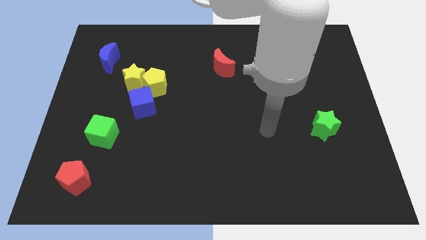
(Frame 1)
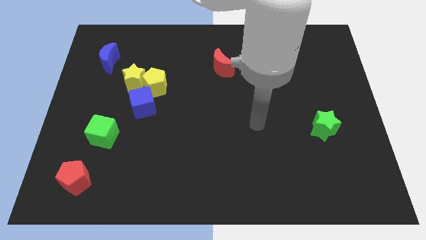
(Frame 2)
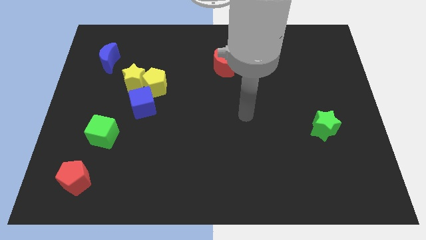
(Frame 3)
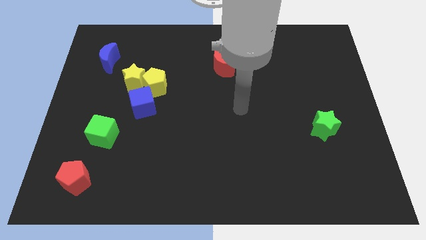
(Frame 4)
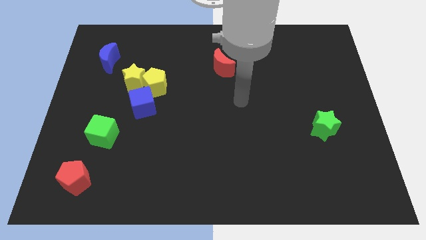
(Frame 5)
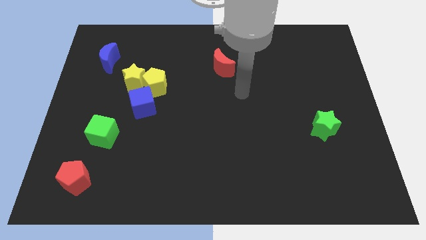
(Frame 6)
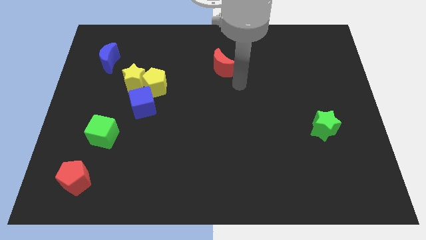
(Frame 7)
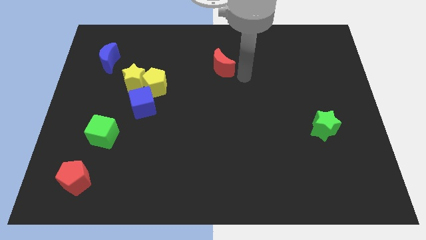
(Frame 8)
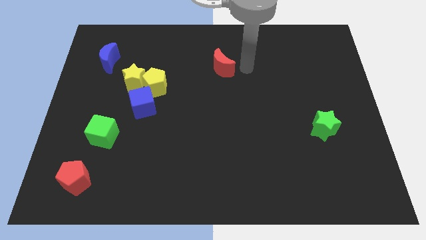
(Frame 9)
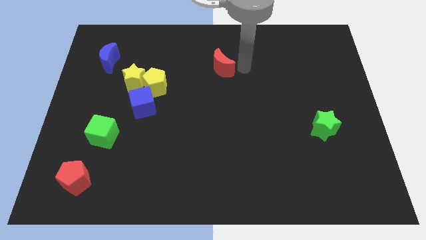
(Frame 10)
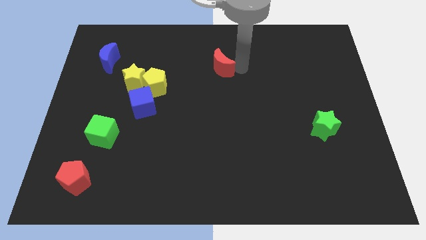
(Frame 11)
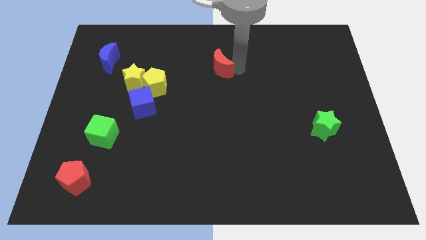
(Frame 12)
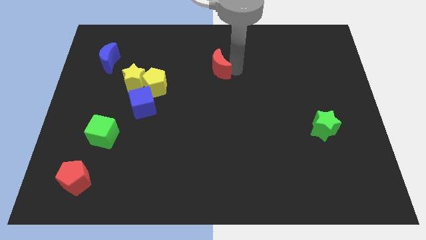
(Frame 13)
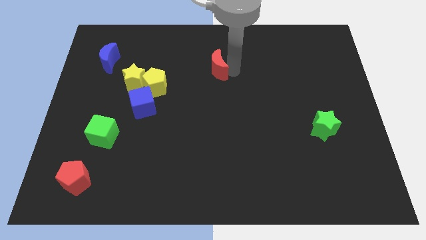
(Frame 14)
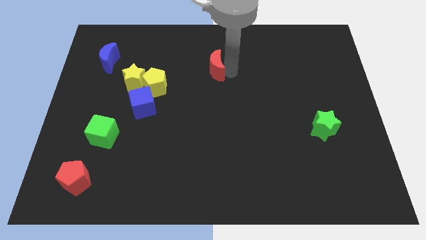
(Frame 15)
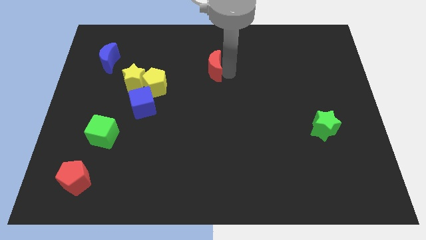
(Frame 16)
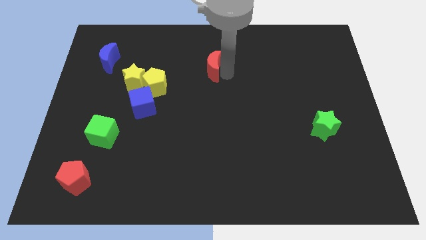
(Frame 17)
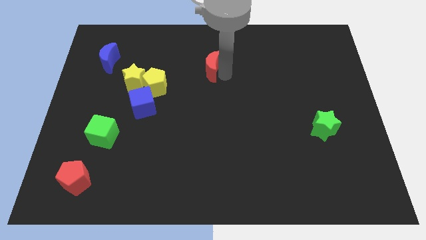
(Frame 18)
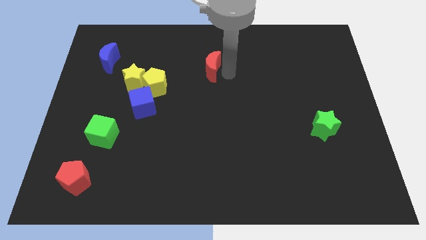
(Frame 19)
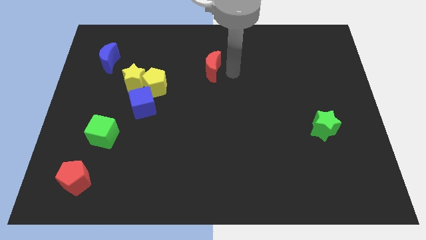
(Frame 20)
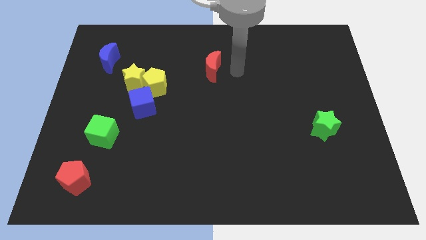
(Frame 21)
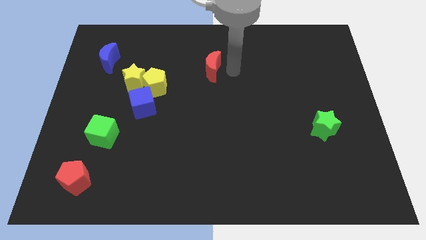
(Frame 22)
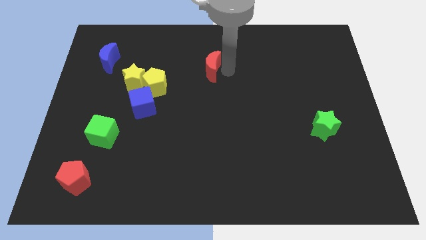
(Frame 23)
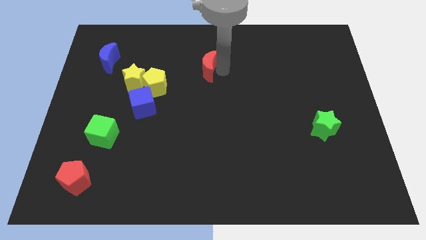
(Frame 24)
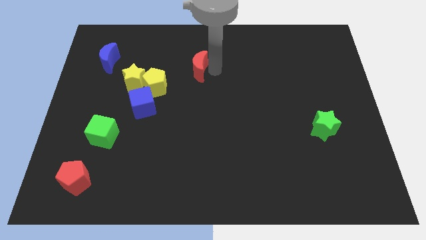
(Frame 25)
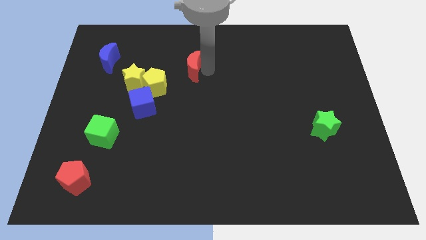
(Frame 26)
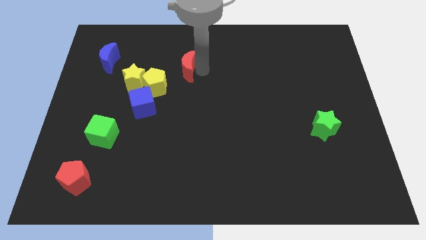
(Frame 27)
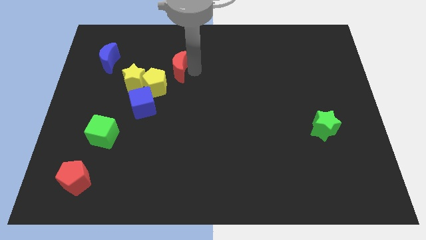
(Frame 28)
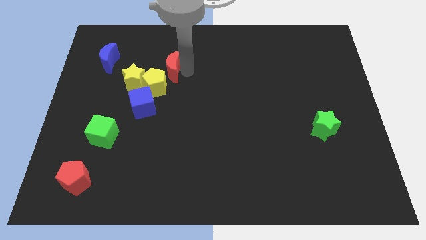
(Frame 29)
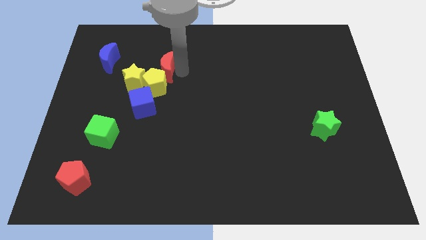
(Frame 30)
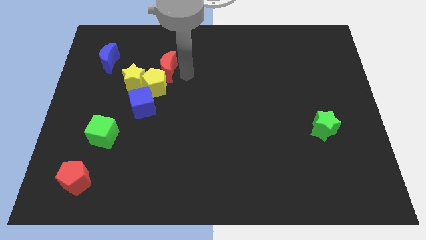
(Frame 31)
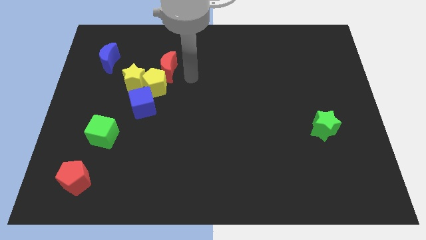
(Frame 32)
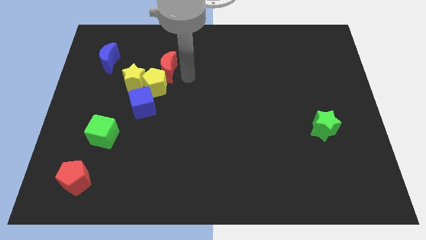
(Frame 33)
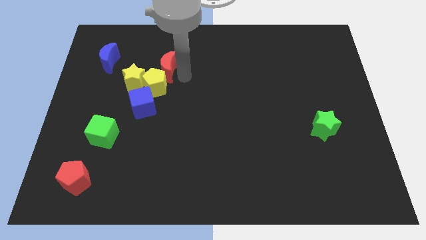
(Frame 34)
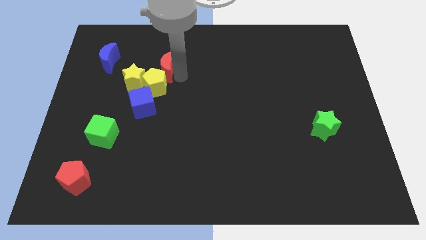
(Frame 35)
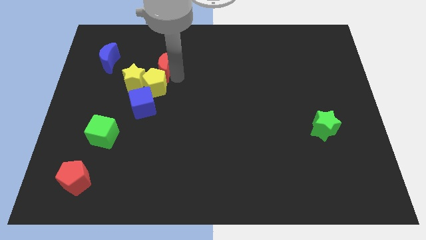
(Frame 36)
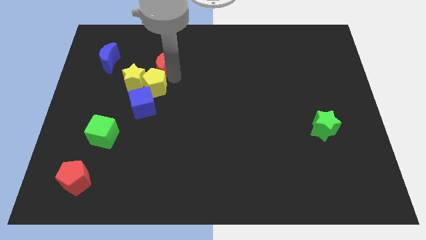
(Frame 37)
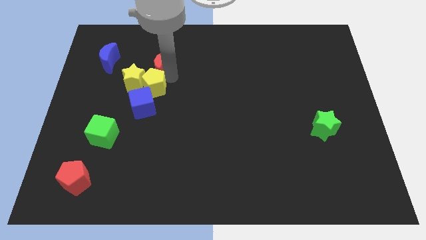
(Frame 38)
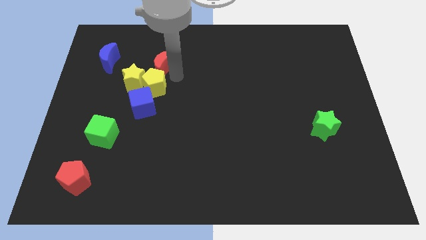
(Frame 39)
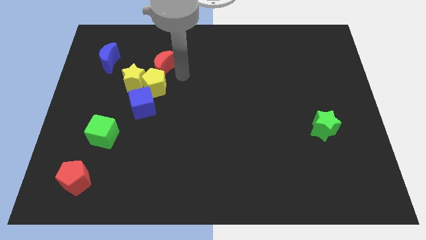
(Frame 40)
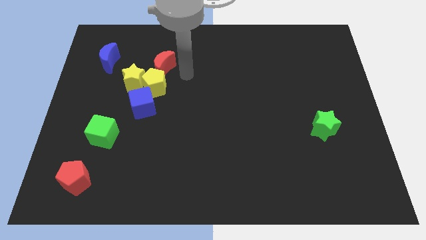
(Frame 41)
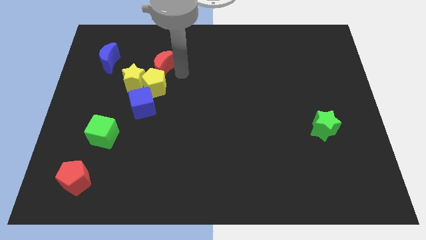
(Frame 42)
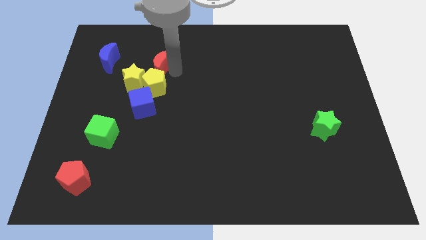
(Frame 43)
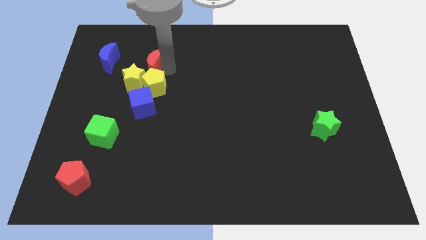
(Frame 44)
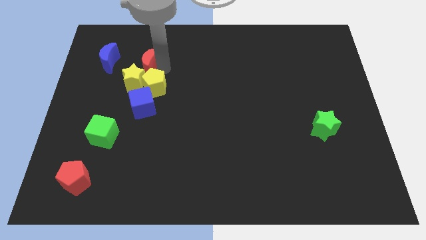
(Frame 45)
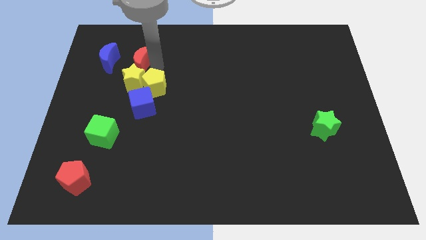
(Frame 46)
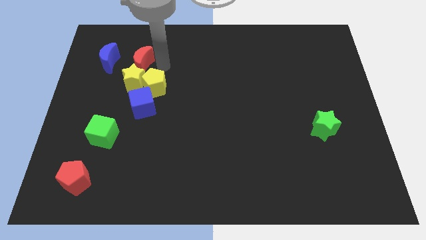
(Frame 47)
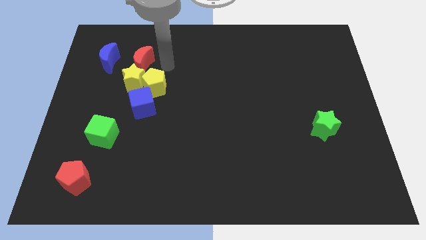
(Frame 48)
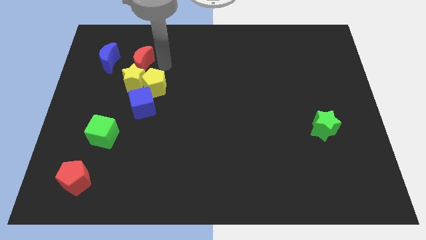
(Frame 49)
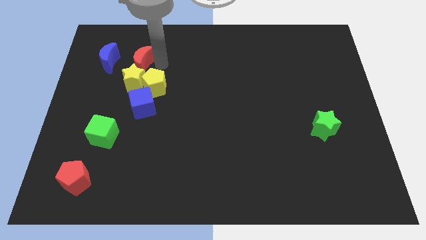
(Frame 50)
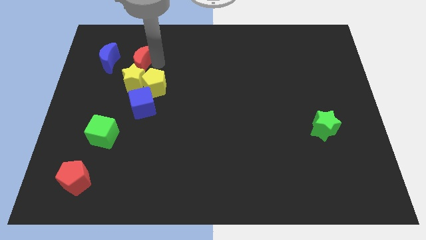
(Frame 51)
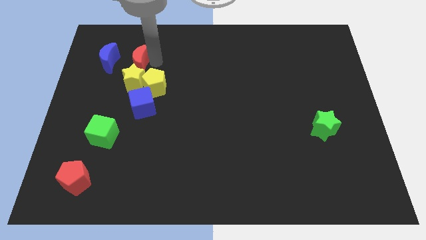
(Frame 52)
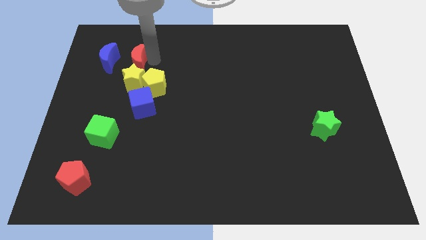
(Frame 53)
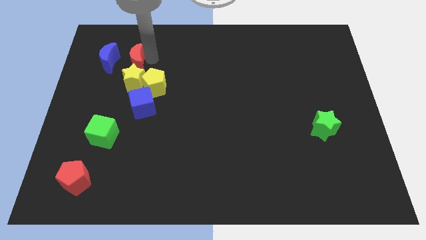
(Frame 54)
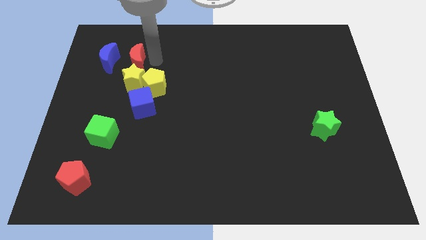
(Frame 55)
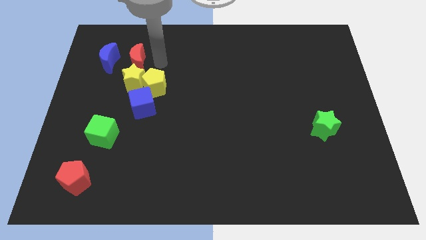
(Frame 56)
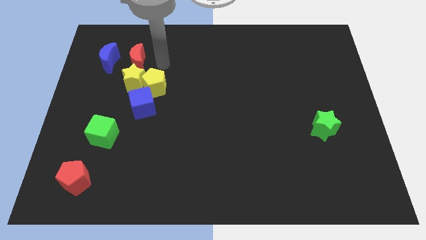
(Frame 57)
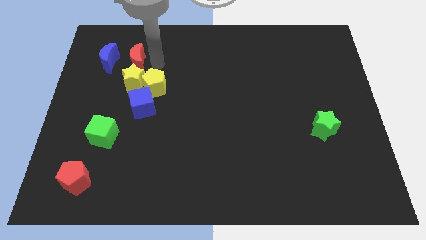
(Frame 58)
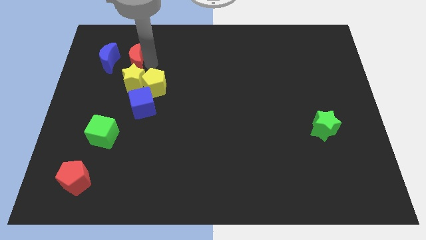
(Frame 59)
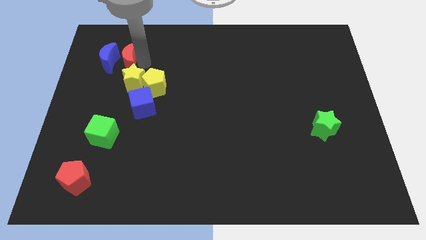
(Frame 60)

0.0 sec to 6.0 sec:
move the red moon close to the blue moon
